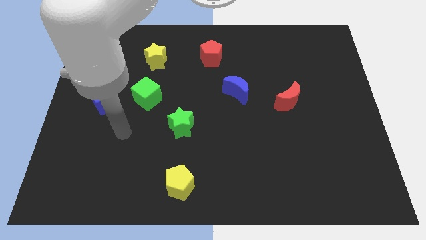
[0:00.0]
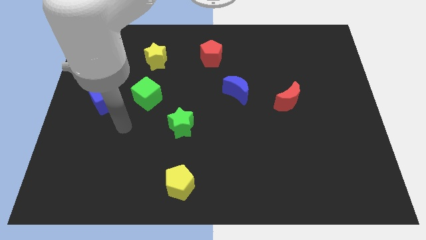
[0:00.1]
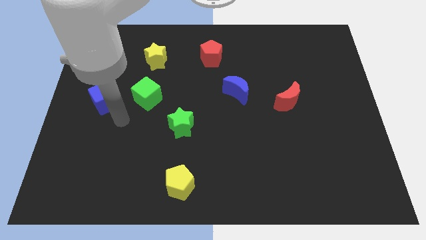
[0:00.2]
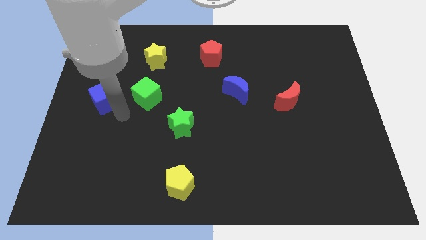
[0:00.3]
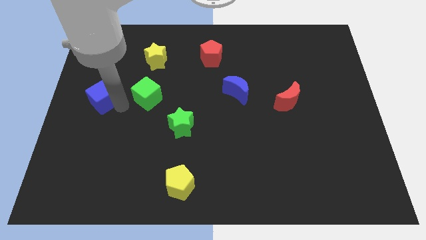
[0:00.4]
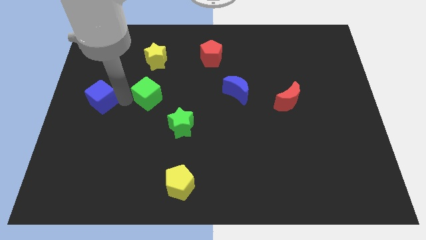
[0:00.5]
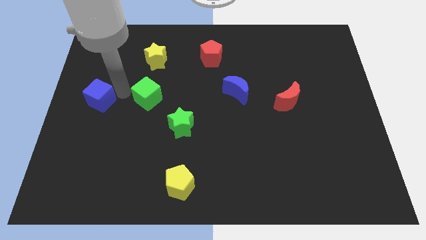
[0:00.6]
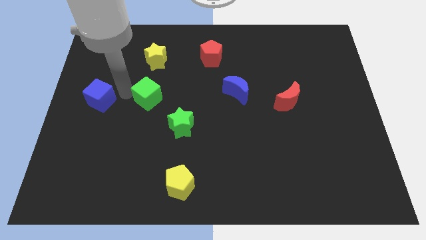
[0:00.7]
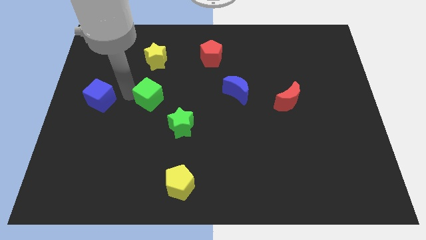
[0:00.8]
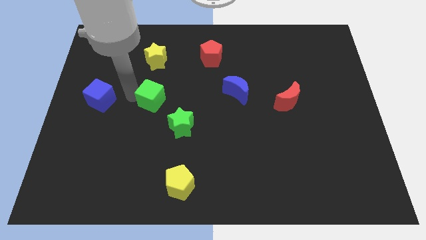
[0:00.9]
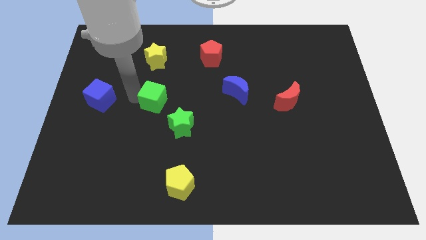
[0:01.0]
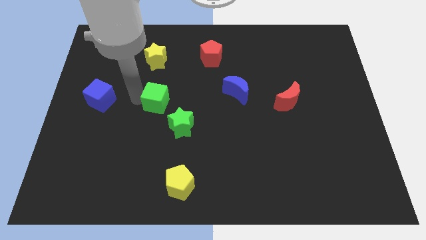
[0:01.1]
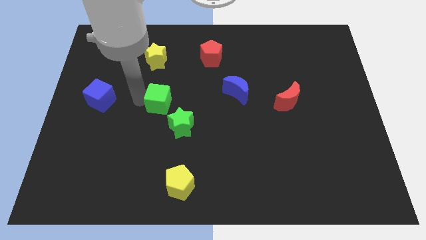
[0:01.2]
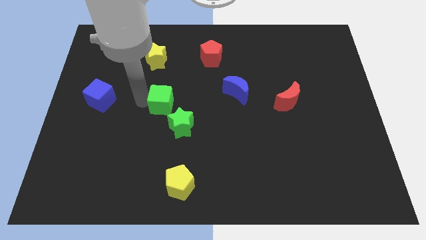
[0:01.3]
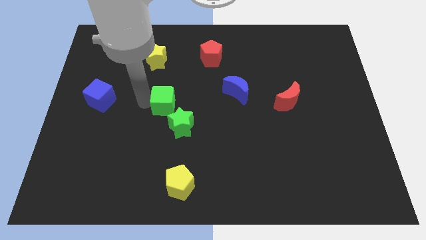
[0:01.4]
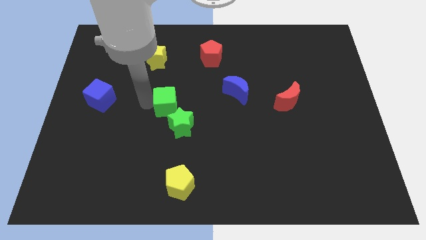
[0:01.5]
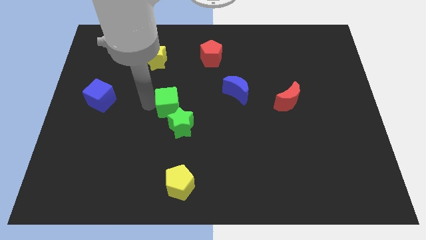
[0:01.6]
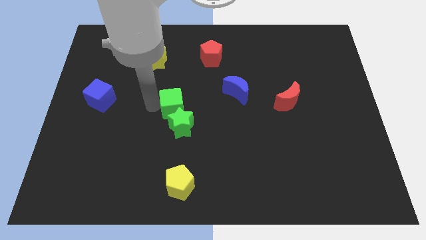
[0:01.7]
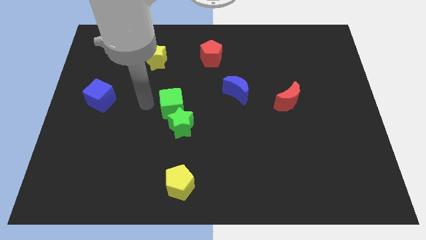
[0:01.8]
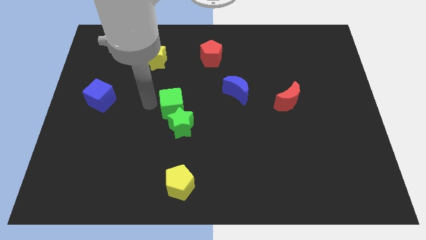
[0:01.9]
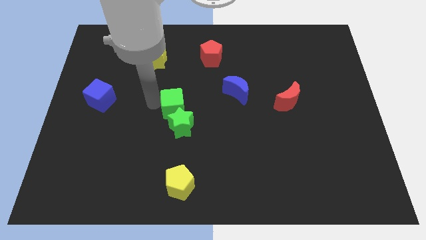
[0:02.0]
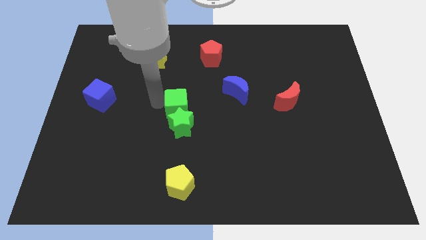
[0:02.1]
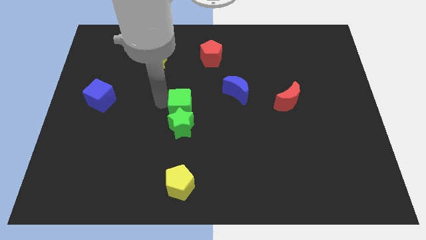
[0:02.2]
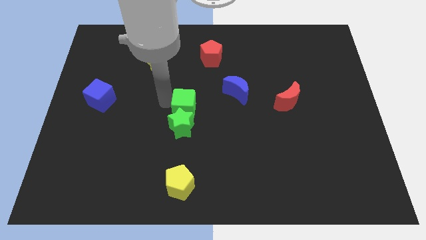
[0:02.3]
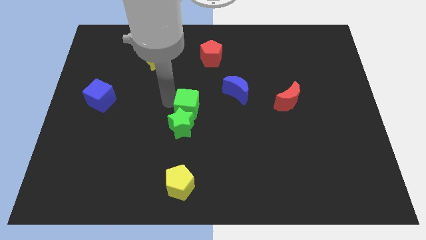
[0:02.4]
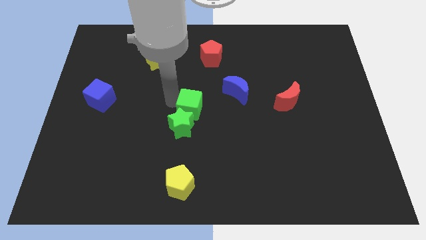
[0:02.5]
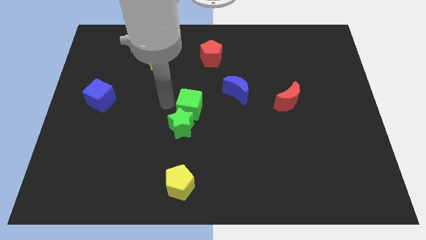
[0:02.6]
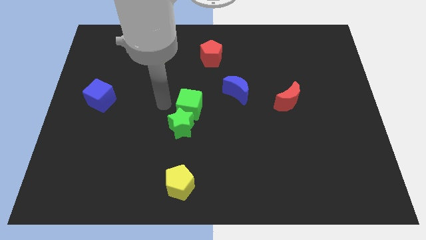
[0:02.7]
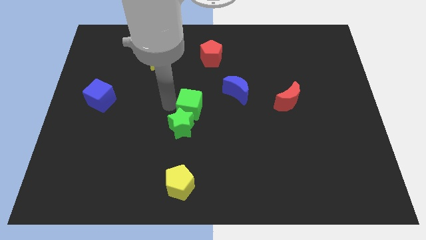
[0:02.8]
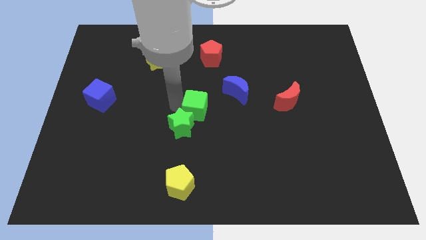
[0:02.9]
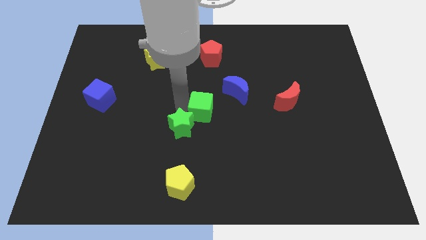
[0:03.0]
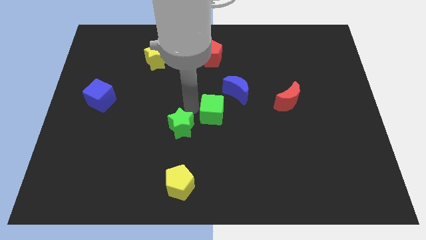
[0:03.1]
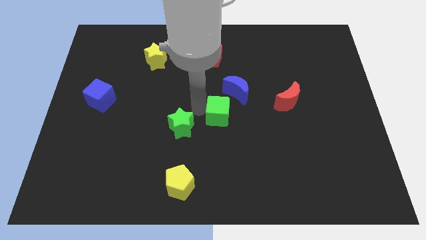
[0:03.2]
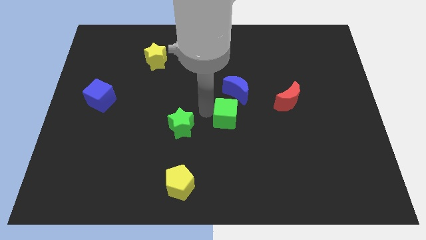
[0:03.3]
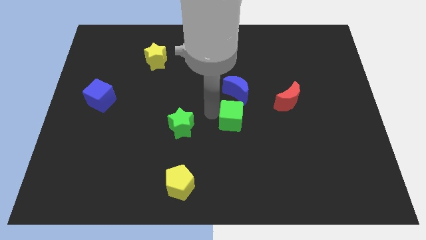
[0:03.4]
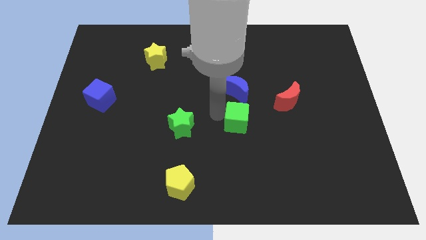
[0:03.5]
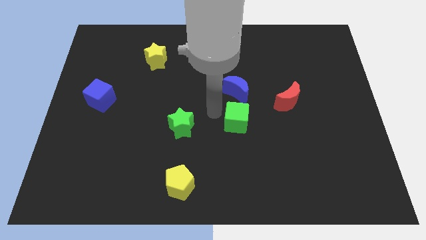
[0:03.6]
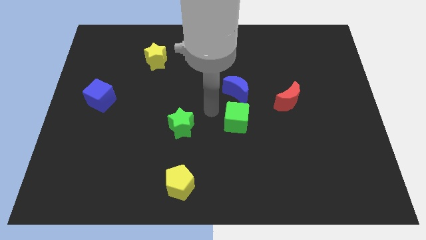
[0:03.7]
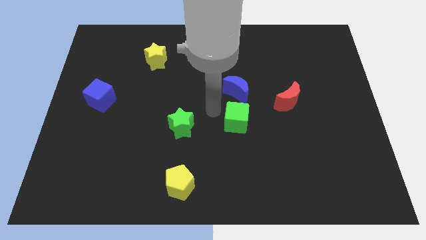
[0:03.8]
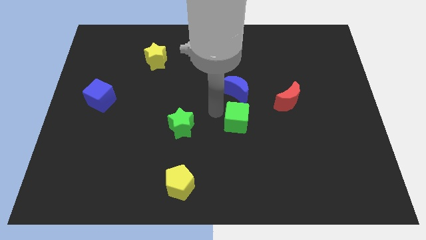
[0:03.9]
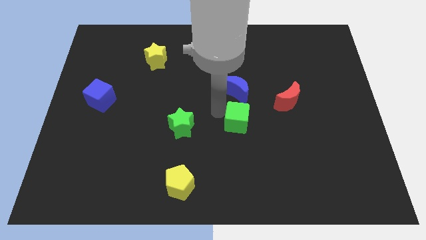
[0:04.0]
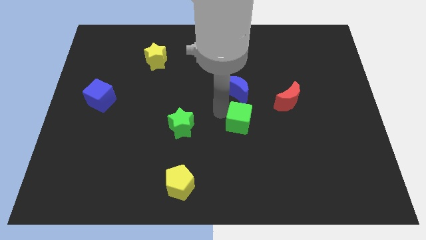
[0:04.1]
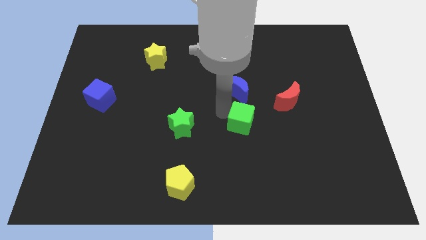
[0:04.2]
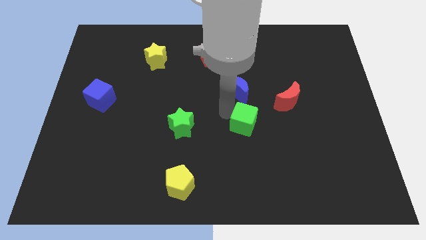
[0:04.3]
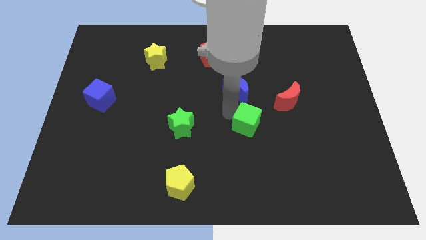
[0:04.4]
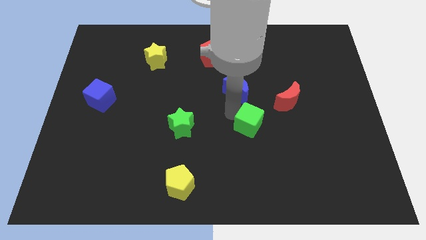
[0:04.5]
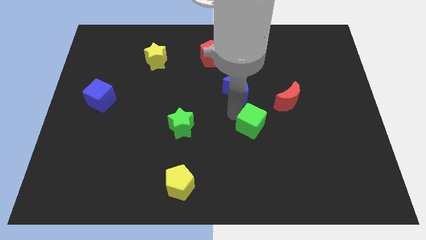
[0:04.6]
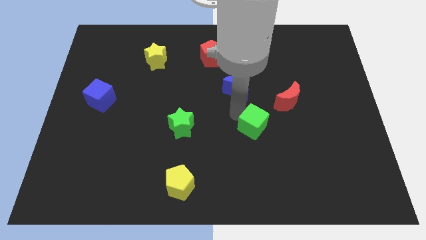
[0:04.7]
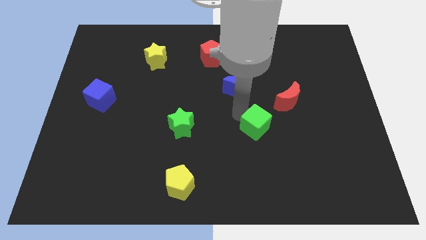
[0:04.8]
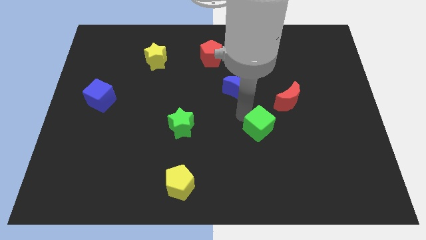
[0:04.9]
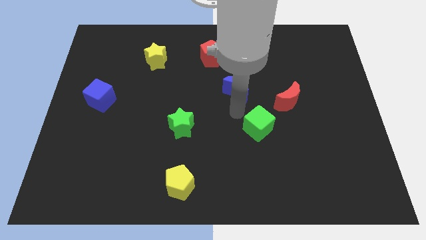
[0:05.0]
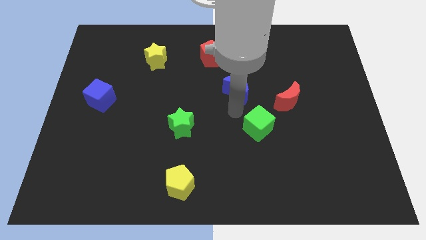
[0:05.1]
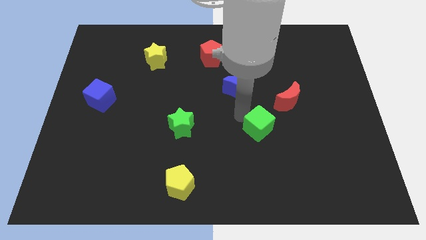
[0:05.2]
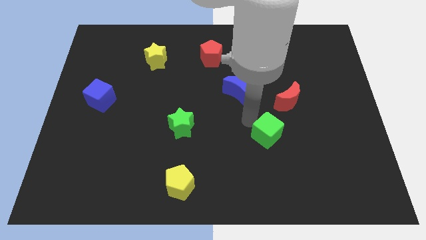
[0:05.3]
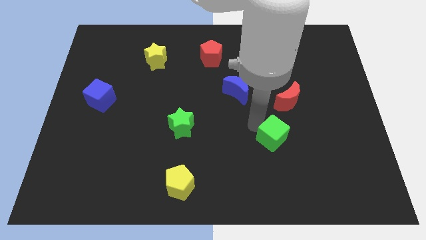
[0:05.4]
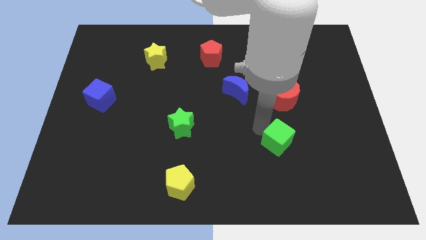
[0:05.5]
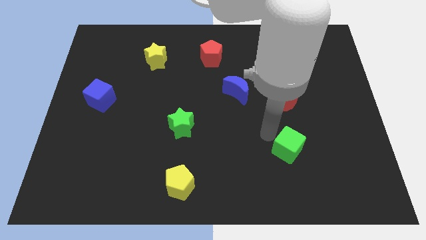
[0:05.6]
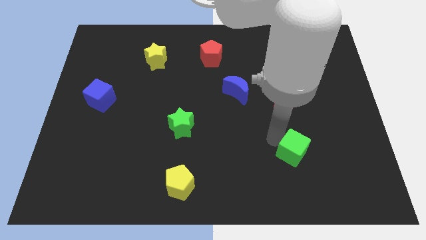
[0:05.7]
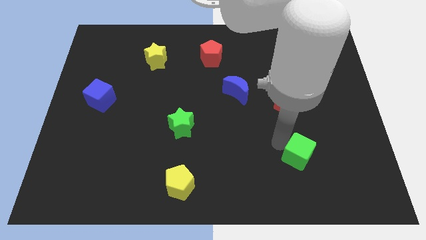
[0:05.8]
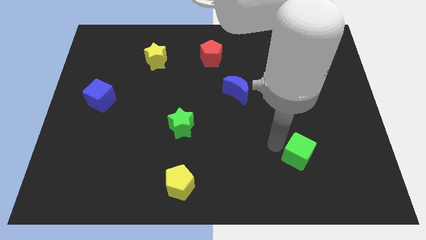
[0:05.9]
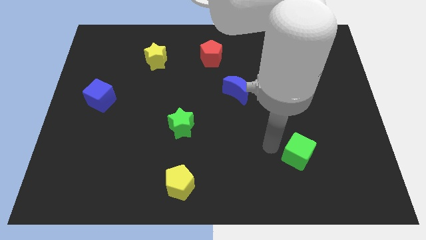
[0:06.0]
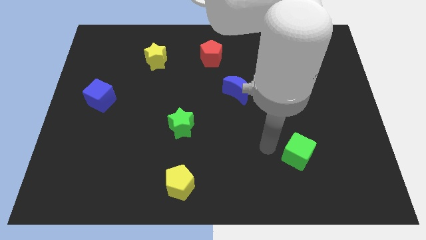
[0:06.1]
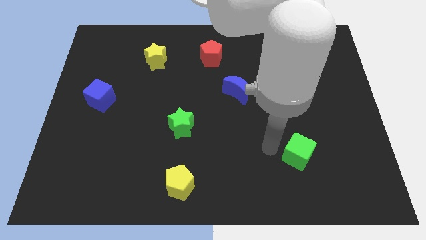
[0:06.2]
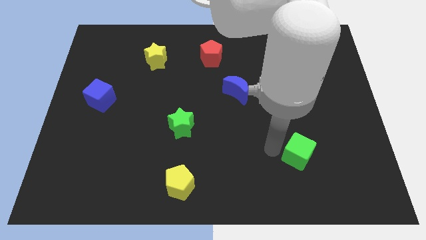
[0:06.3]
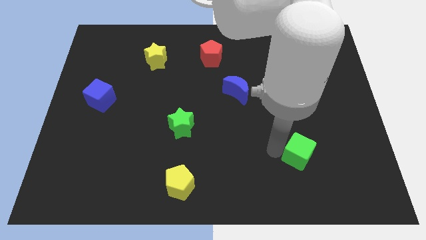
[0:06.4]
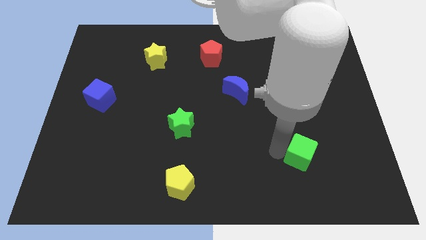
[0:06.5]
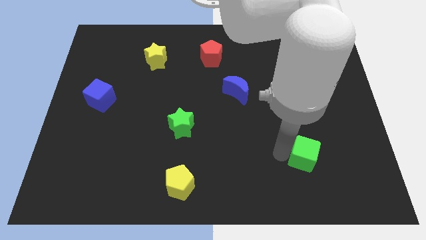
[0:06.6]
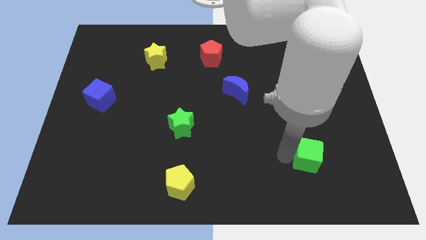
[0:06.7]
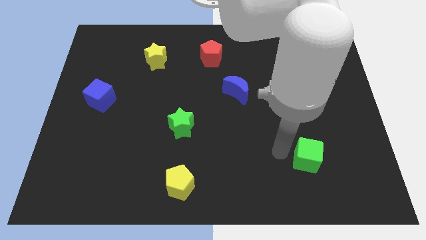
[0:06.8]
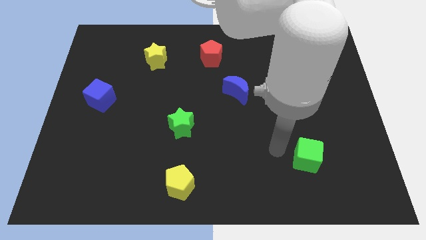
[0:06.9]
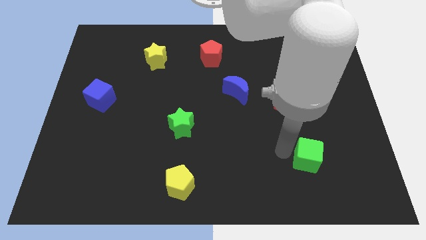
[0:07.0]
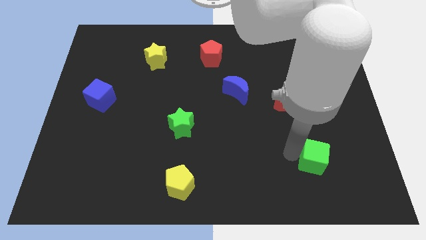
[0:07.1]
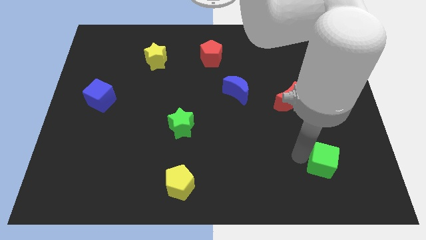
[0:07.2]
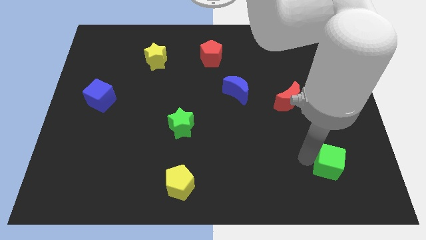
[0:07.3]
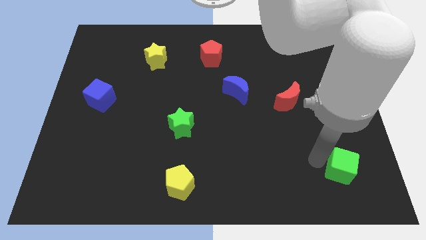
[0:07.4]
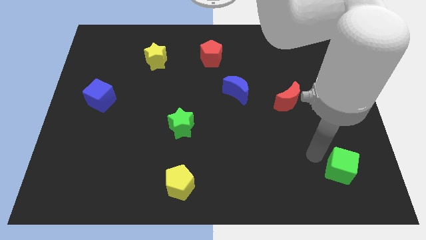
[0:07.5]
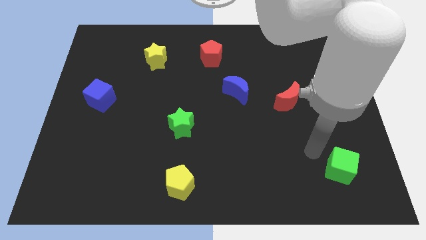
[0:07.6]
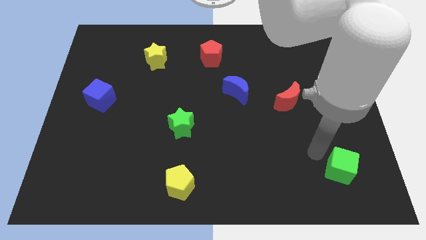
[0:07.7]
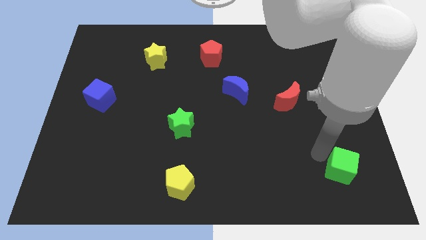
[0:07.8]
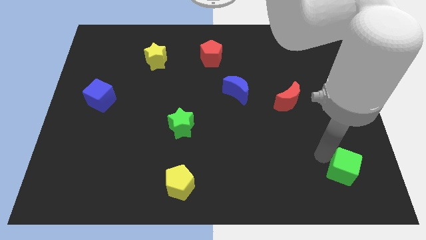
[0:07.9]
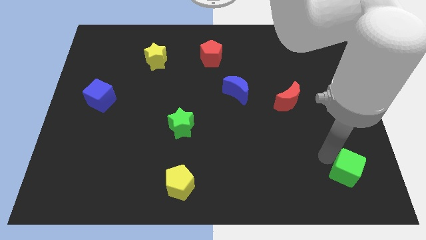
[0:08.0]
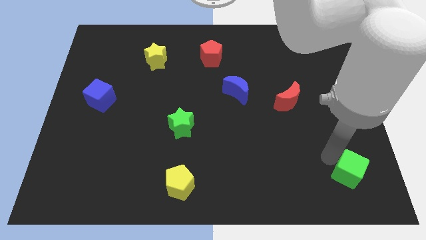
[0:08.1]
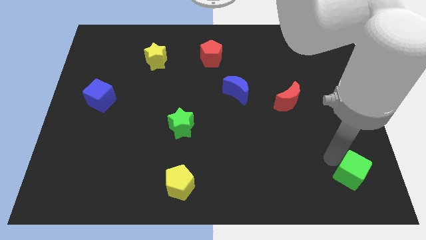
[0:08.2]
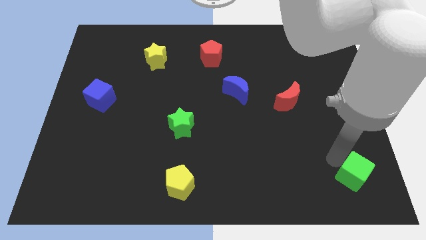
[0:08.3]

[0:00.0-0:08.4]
push the green cube to the bottom right corner
